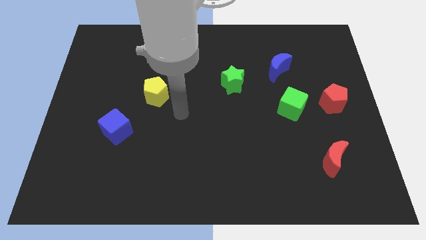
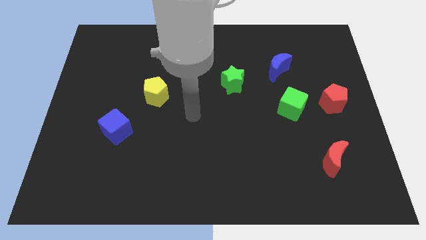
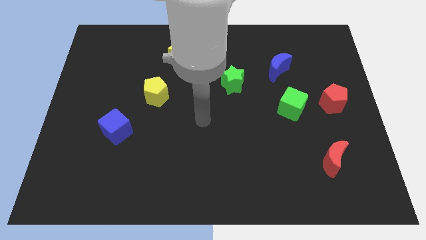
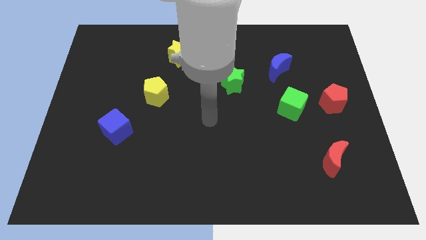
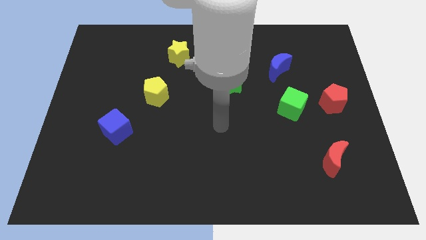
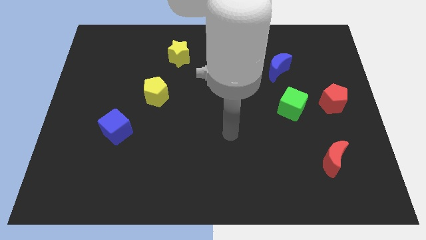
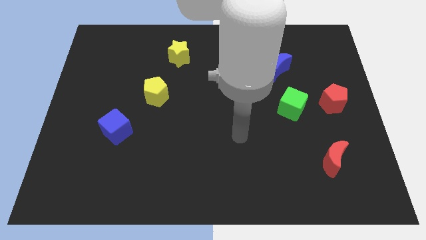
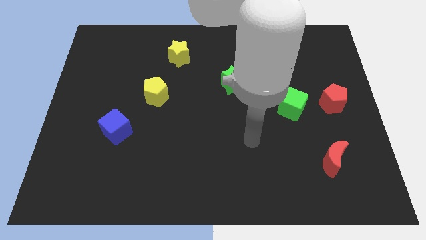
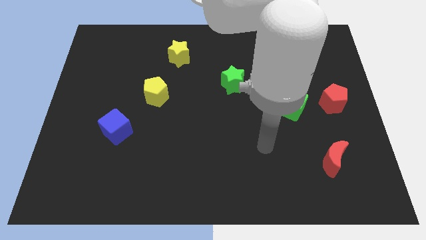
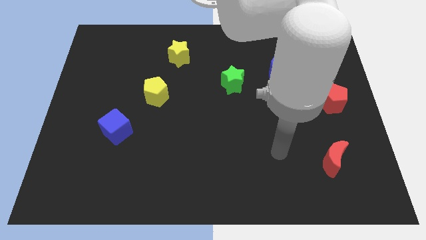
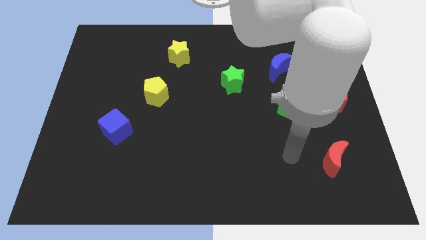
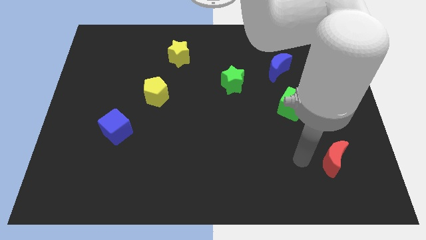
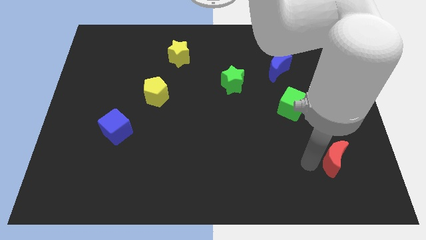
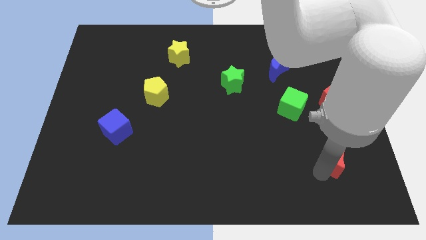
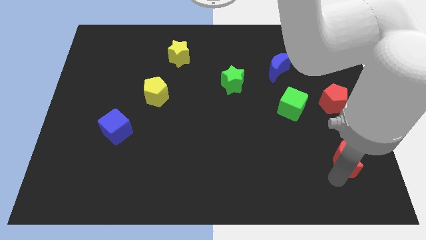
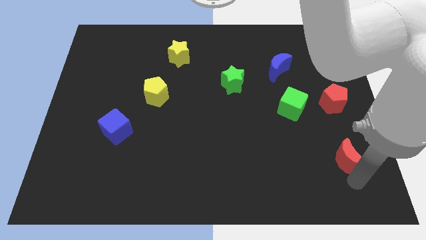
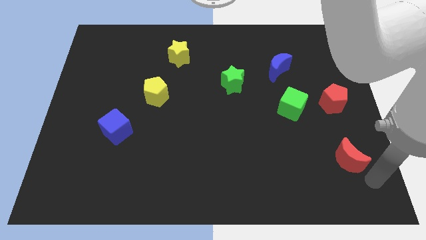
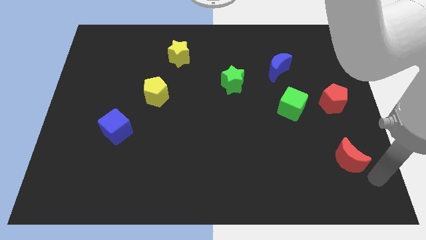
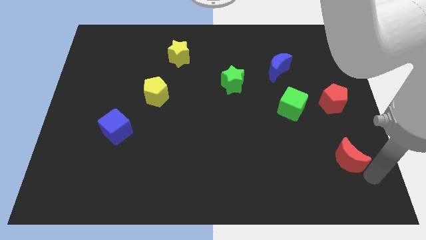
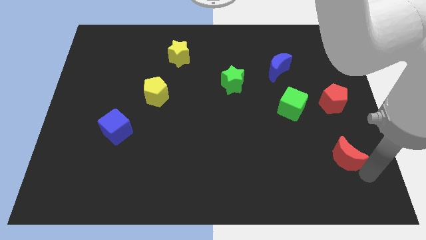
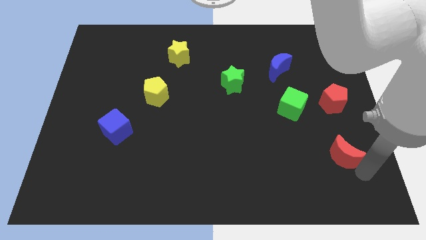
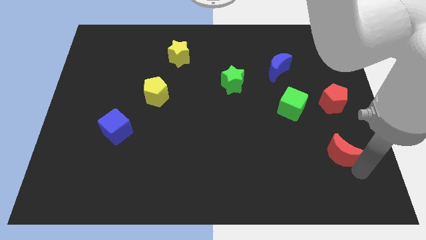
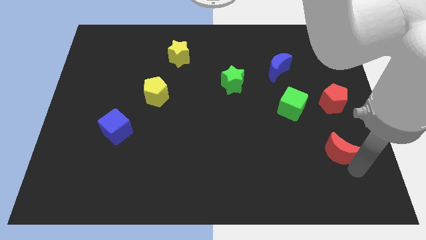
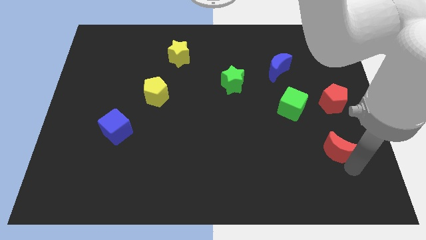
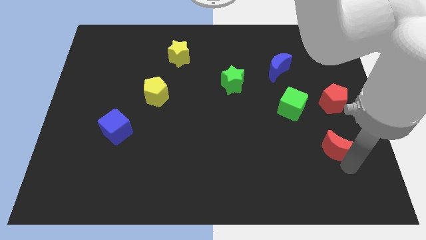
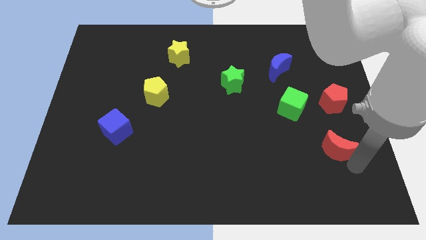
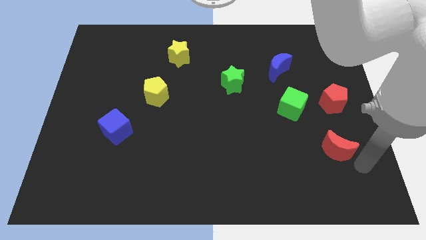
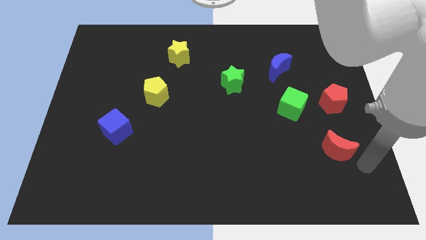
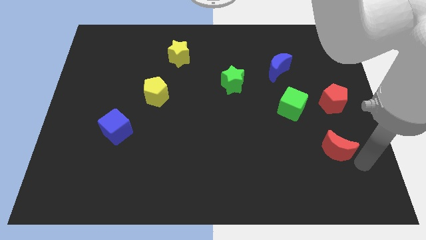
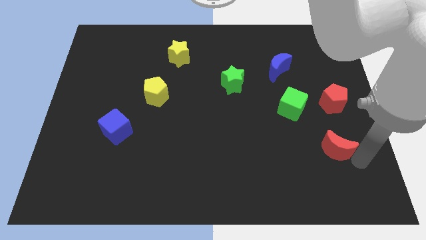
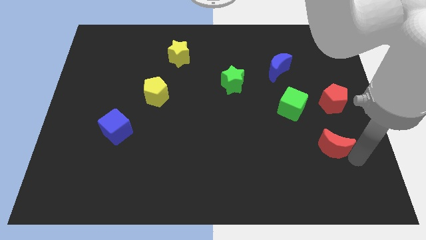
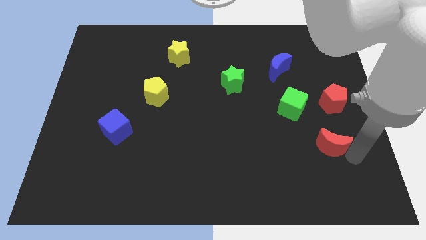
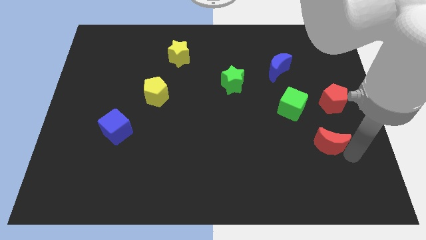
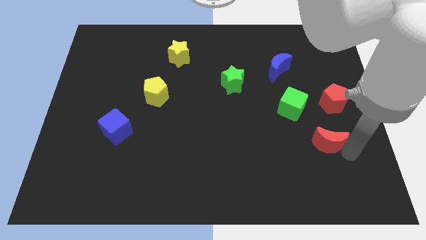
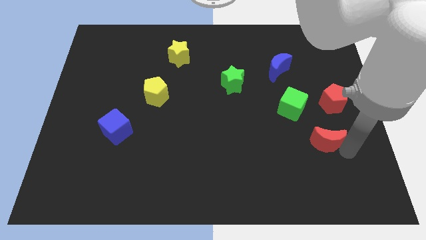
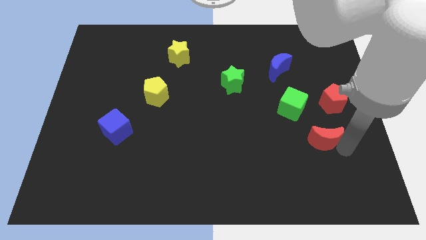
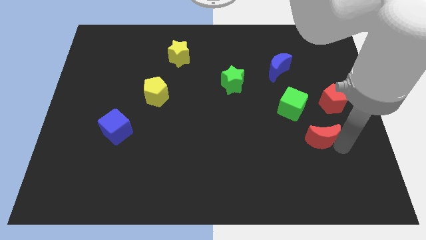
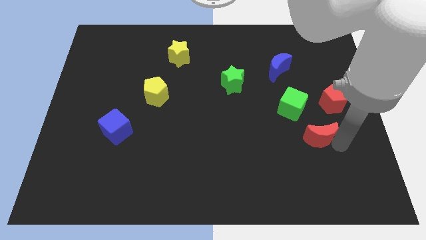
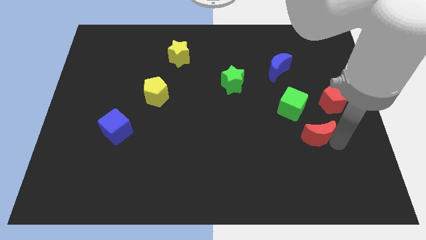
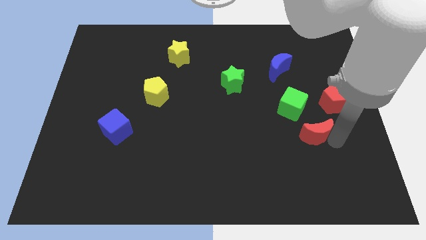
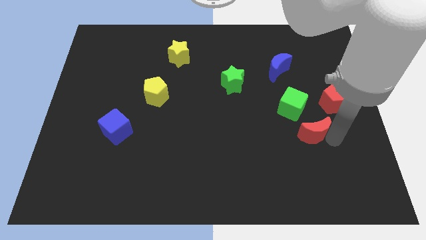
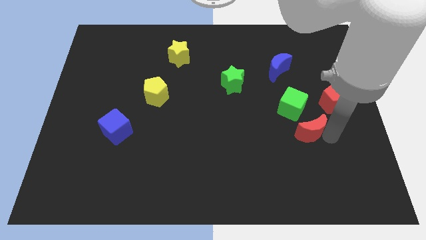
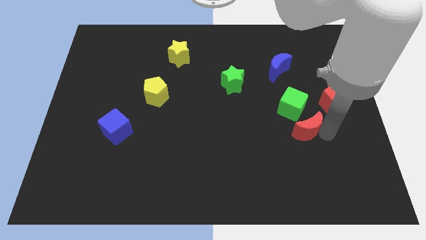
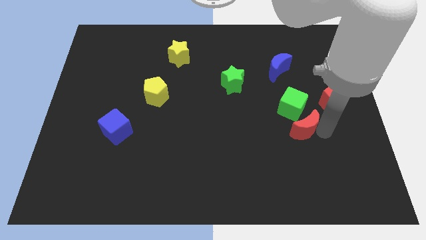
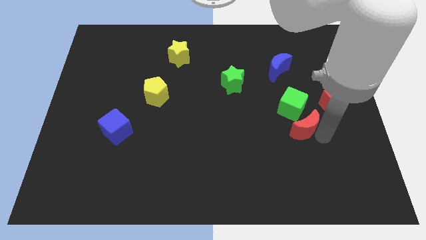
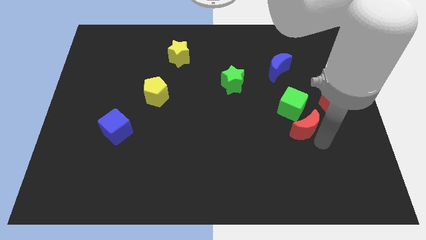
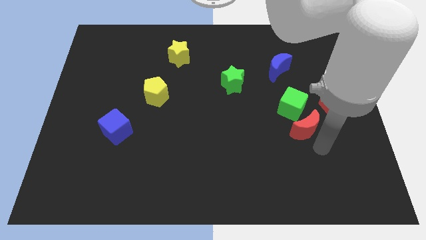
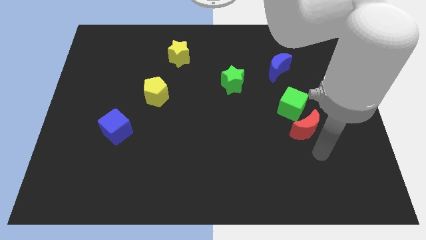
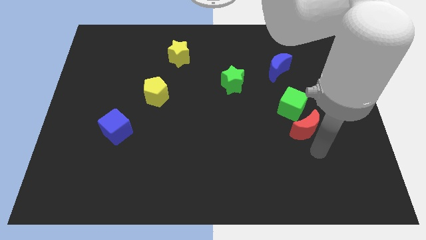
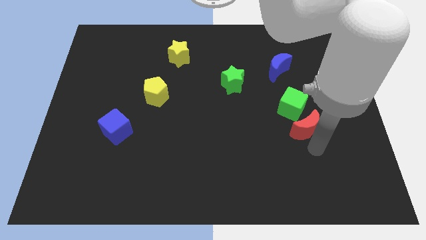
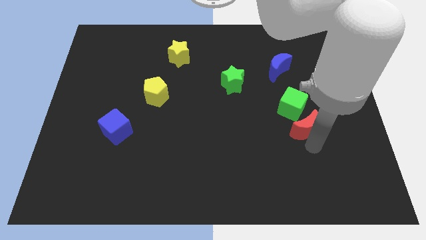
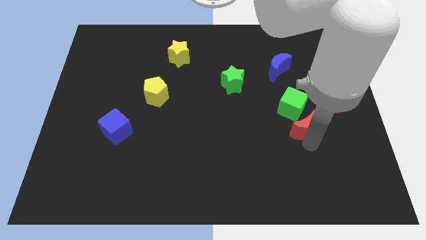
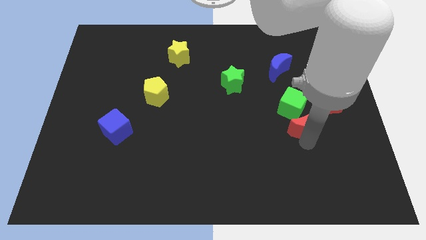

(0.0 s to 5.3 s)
put the red moon to the green cube

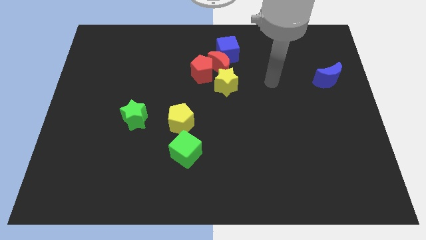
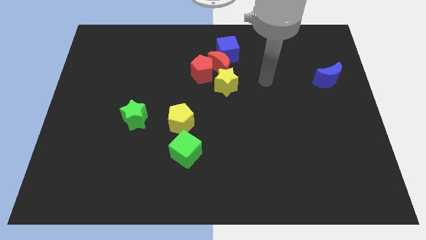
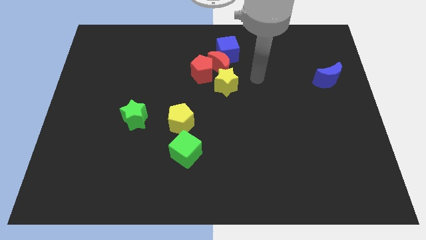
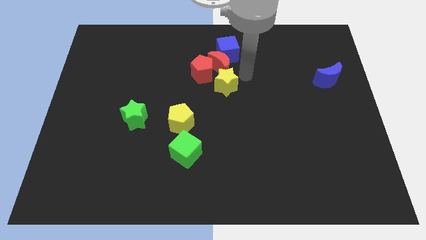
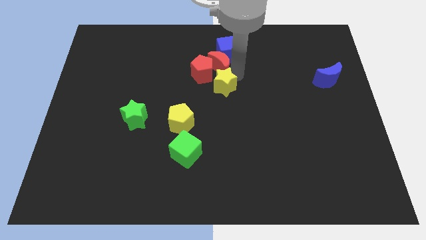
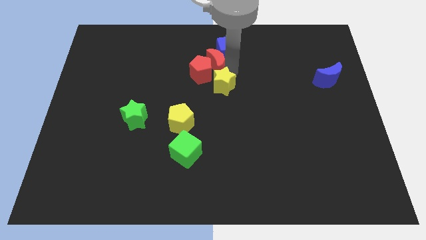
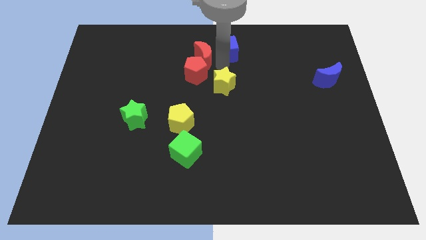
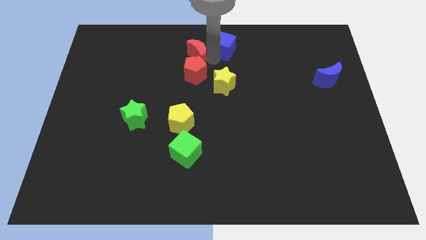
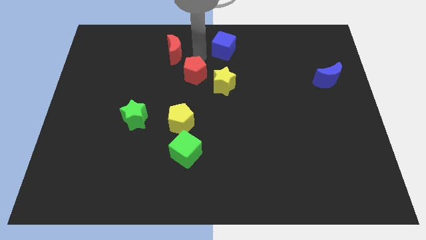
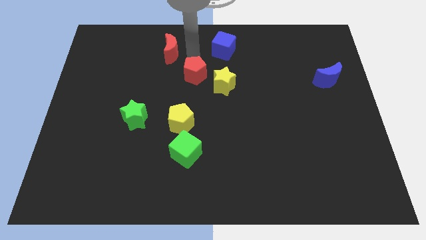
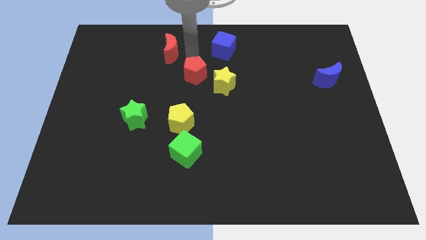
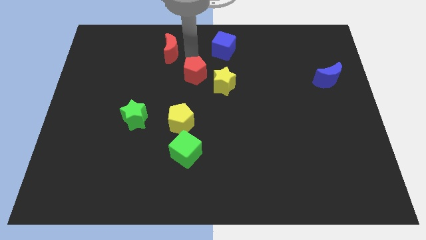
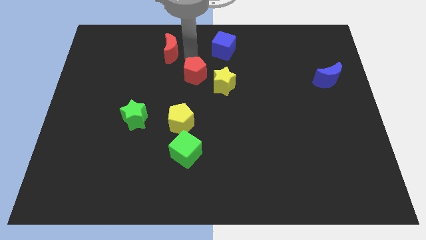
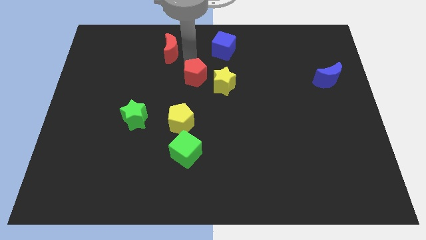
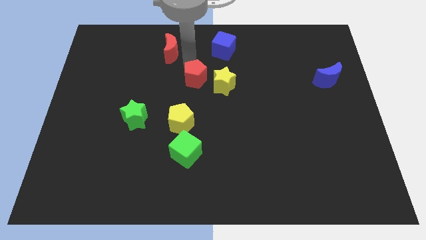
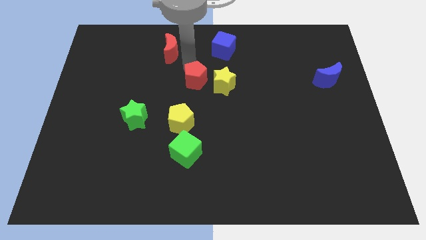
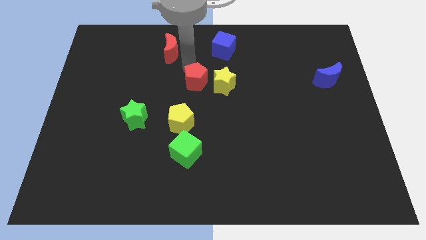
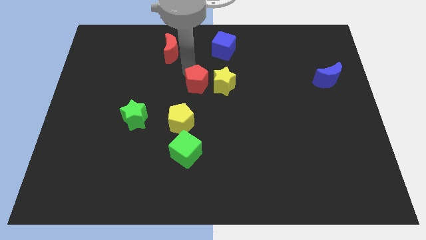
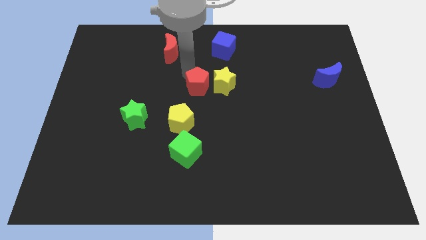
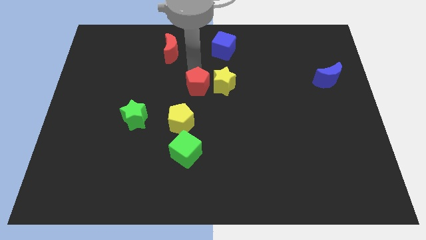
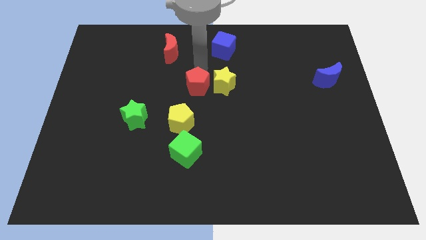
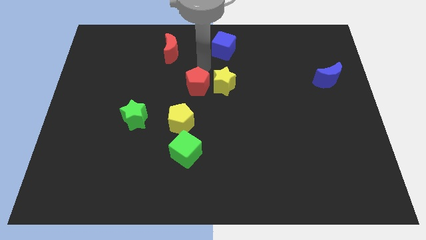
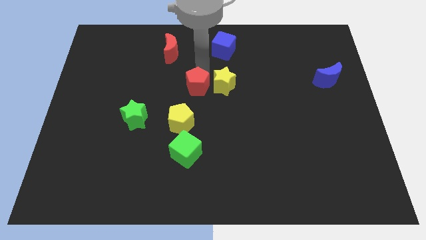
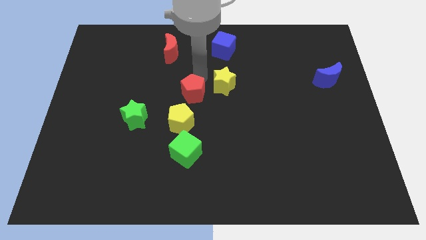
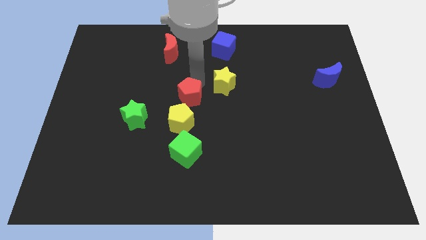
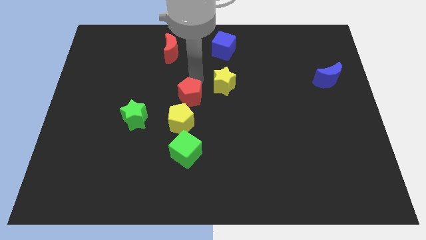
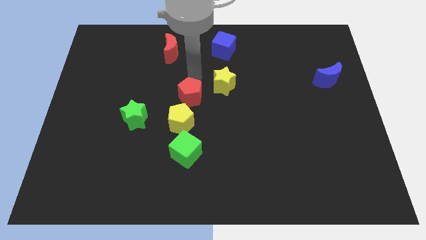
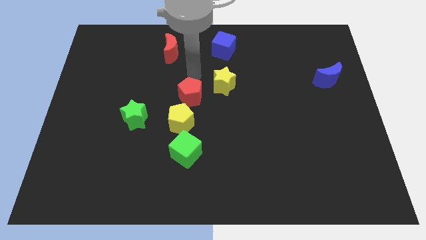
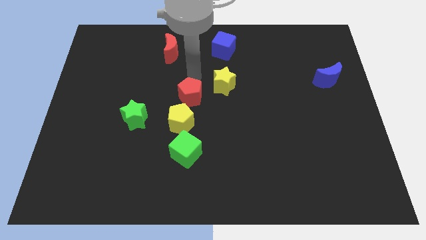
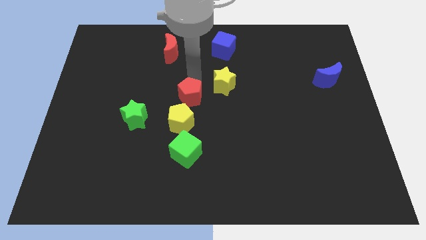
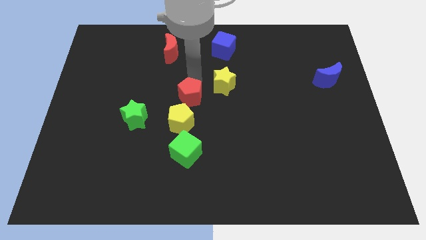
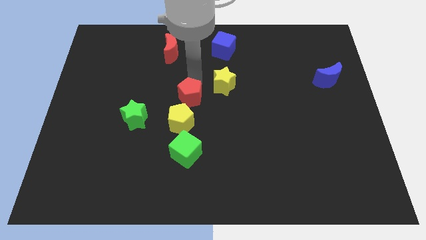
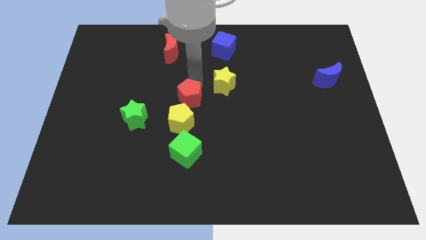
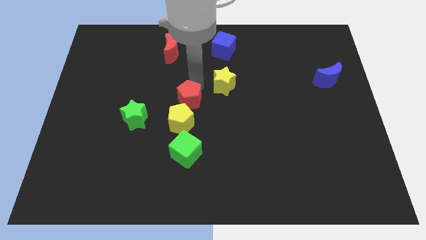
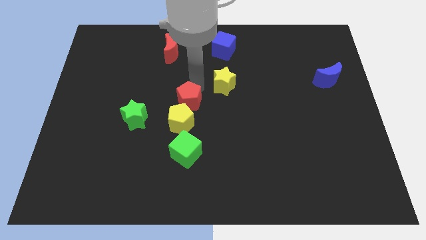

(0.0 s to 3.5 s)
slide the red pentagon next to the yellow pentagon
